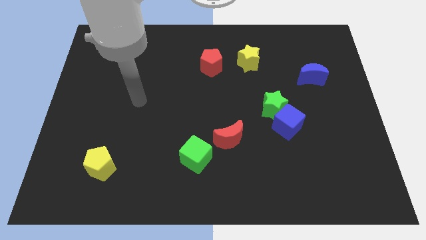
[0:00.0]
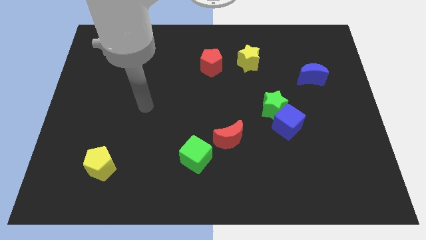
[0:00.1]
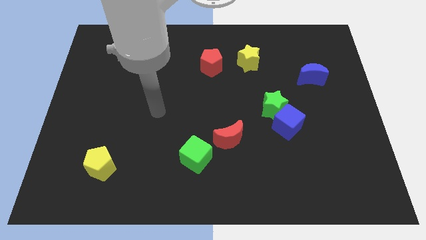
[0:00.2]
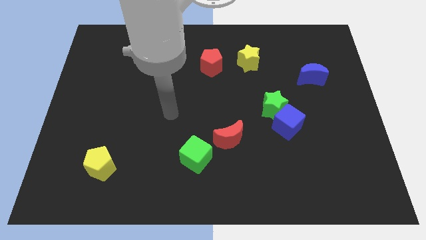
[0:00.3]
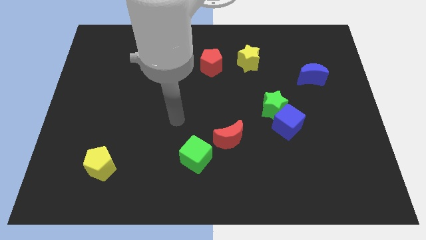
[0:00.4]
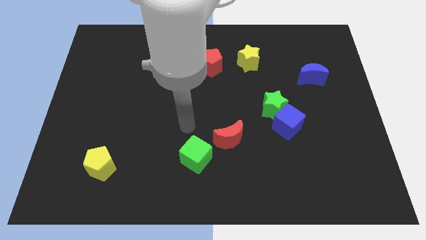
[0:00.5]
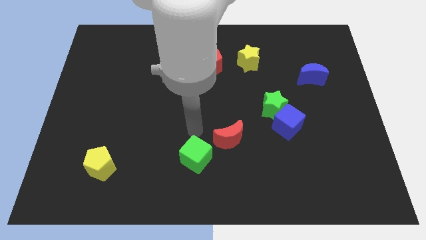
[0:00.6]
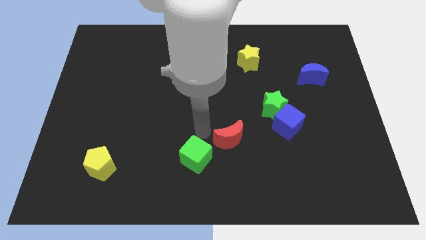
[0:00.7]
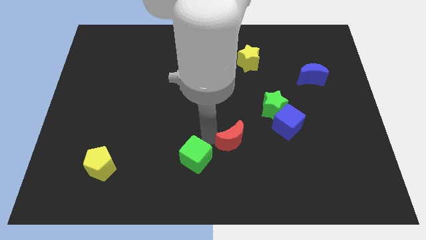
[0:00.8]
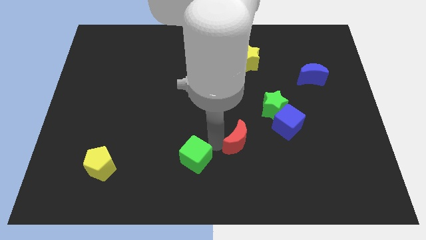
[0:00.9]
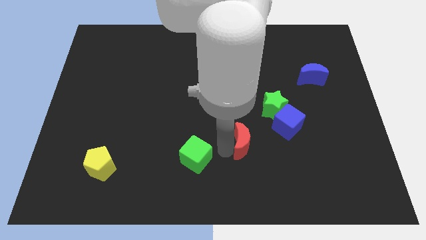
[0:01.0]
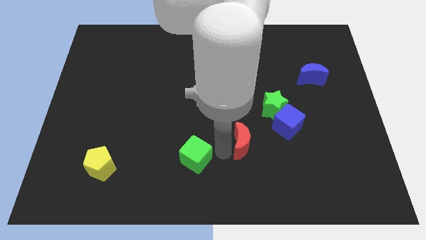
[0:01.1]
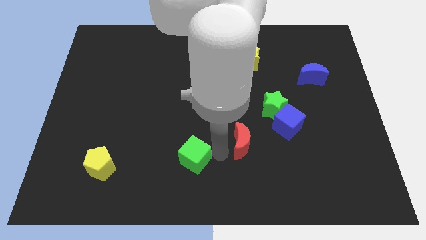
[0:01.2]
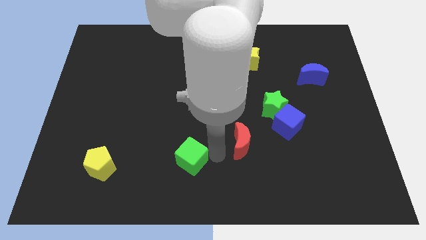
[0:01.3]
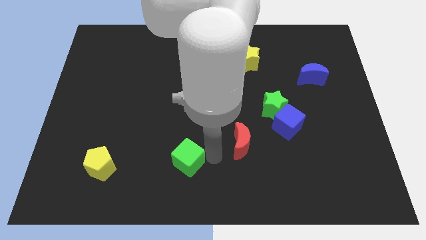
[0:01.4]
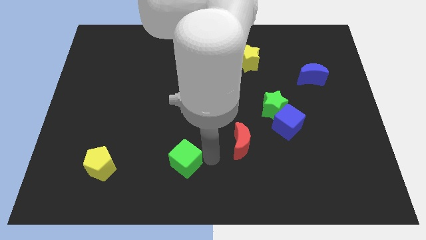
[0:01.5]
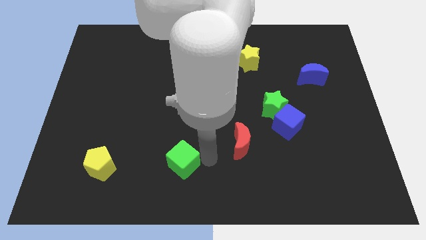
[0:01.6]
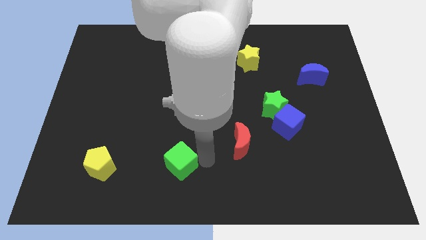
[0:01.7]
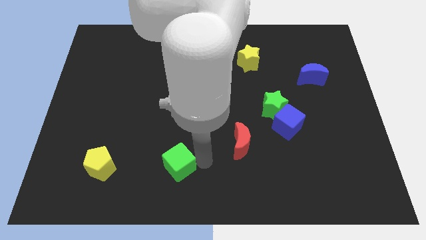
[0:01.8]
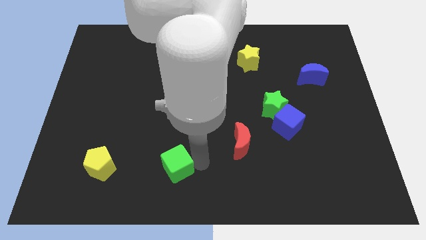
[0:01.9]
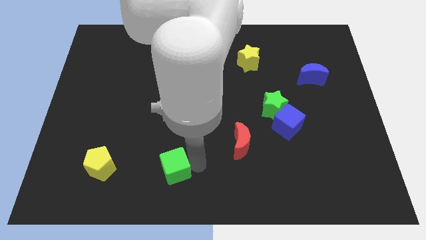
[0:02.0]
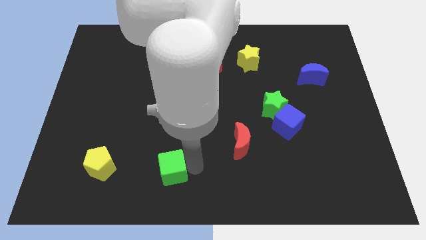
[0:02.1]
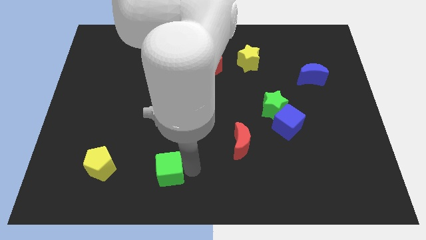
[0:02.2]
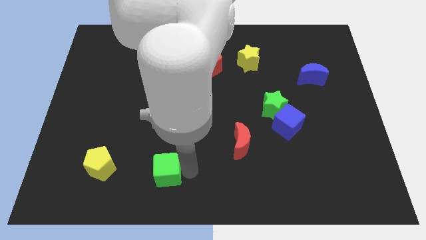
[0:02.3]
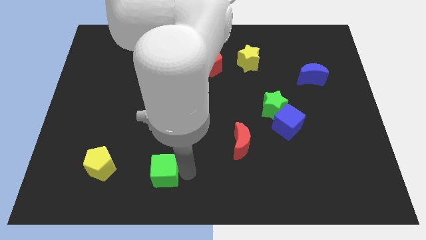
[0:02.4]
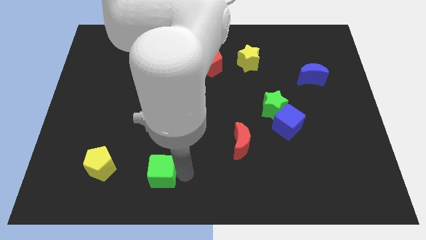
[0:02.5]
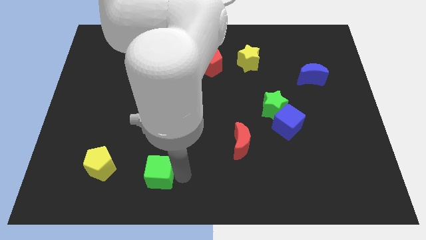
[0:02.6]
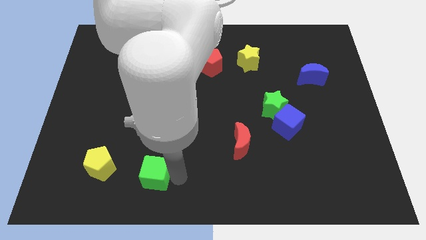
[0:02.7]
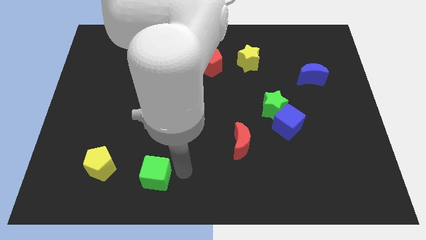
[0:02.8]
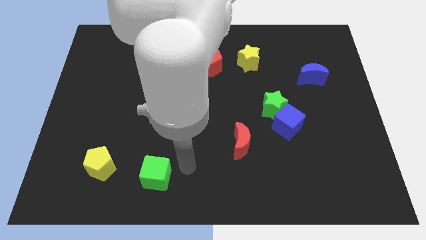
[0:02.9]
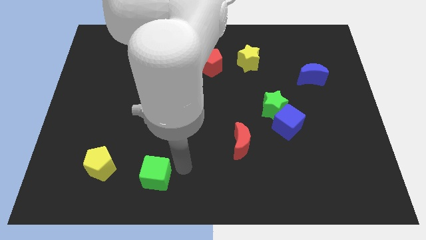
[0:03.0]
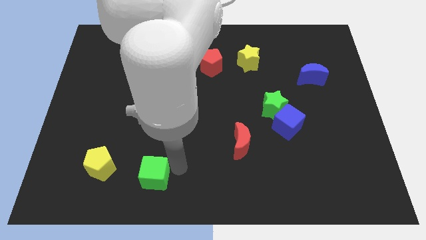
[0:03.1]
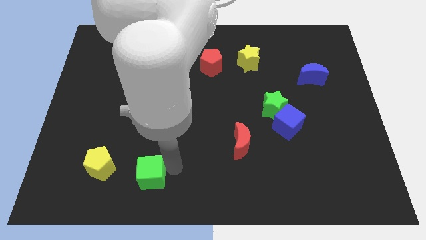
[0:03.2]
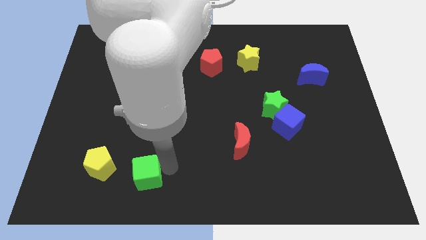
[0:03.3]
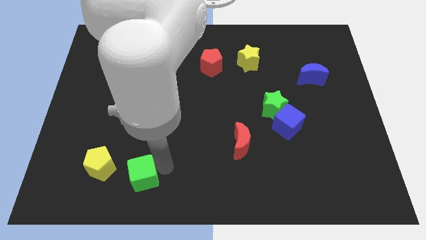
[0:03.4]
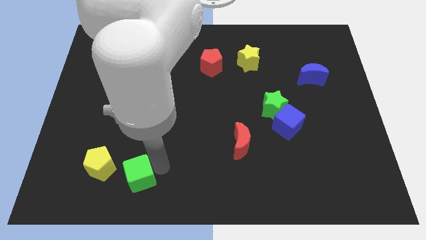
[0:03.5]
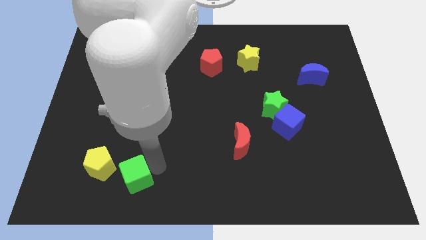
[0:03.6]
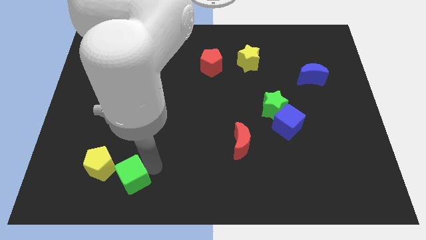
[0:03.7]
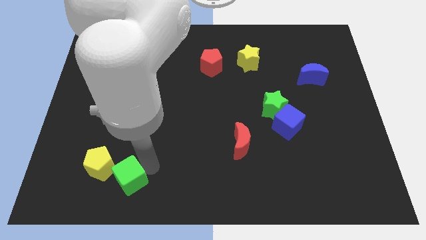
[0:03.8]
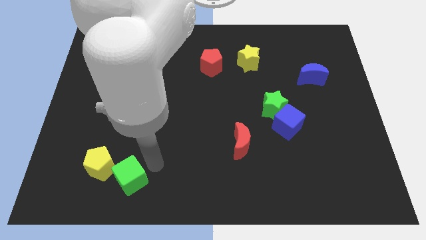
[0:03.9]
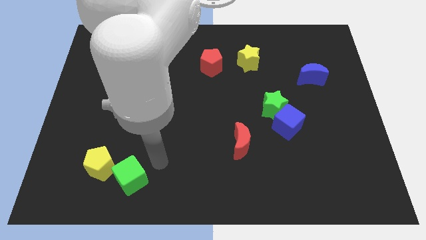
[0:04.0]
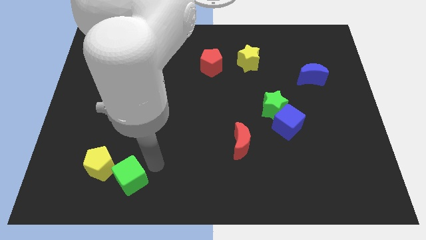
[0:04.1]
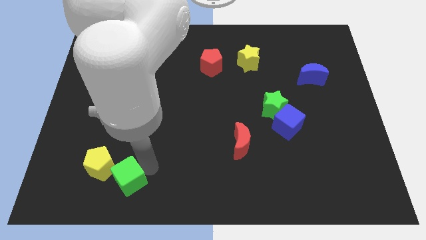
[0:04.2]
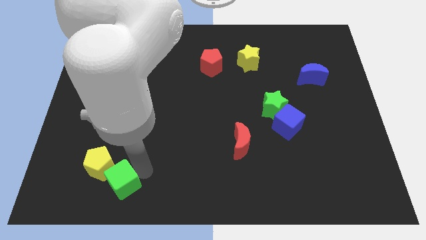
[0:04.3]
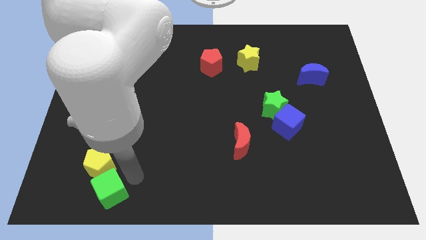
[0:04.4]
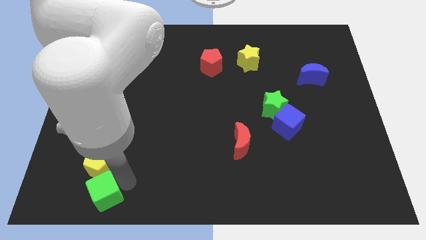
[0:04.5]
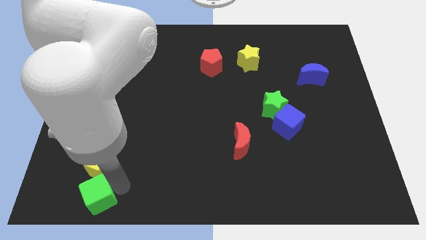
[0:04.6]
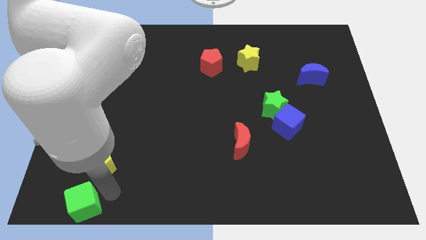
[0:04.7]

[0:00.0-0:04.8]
move the green cube to the bottom left of the board

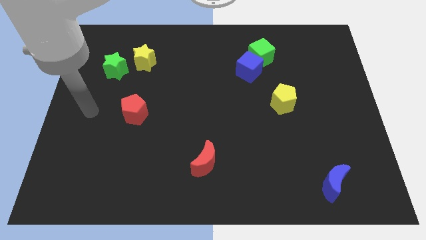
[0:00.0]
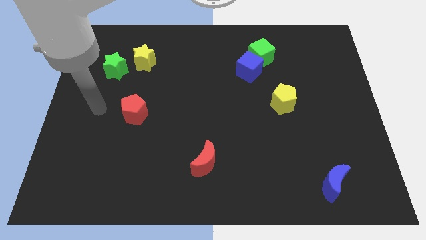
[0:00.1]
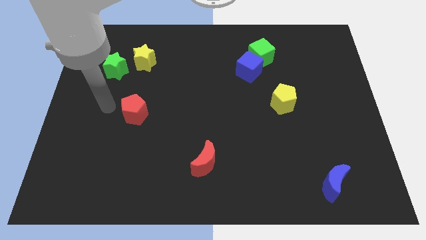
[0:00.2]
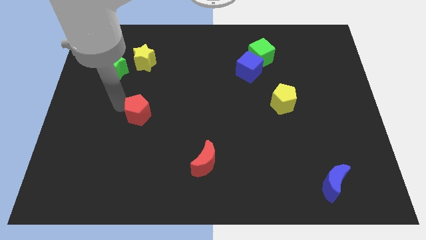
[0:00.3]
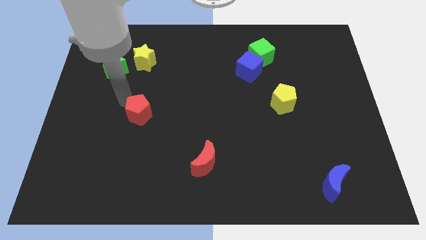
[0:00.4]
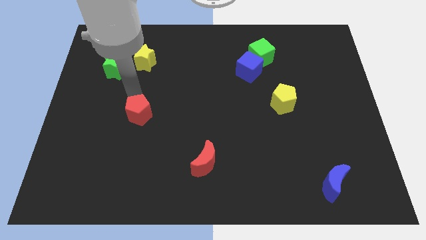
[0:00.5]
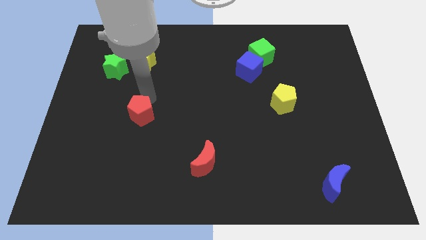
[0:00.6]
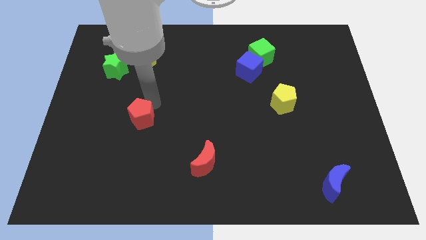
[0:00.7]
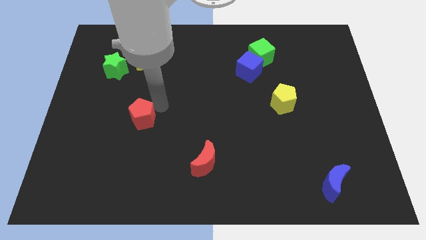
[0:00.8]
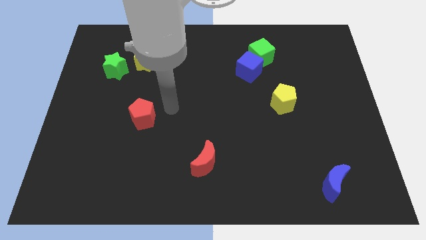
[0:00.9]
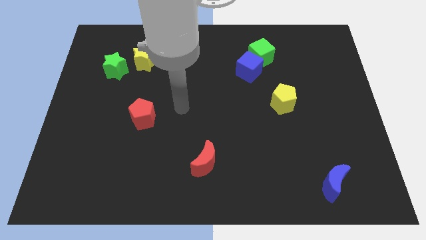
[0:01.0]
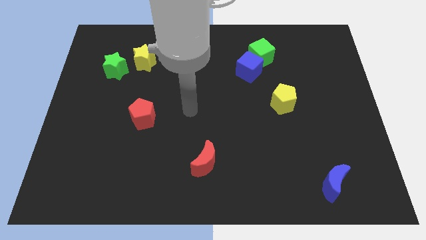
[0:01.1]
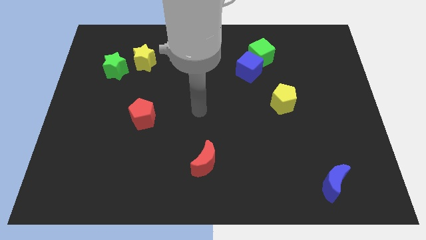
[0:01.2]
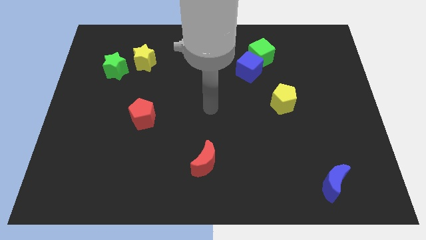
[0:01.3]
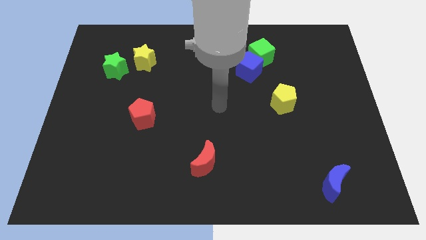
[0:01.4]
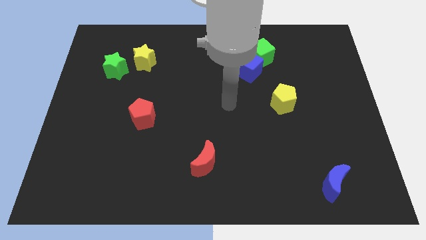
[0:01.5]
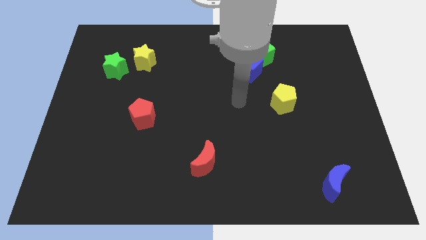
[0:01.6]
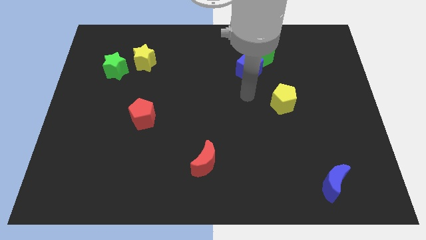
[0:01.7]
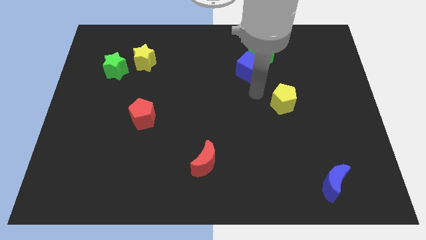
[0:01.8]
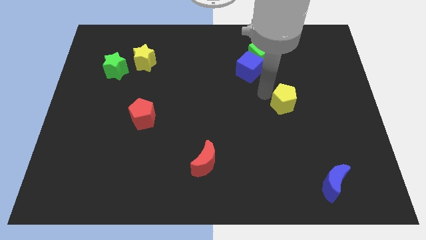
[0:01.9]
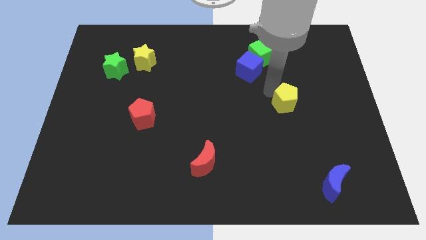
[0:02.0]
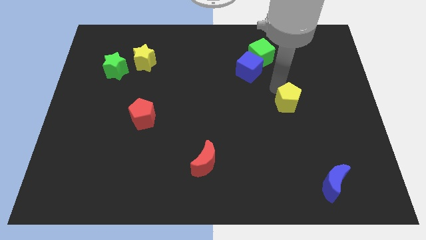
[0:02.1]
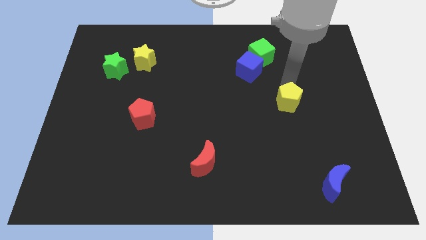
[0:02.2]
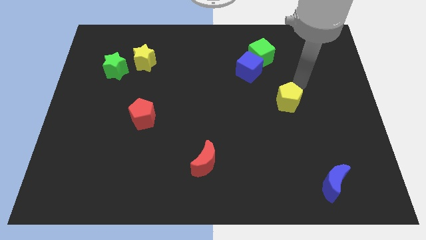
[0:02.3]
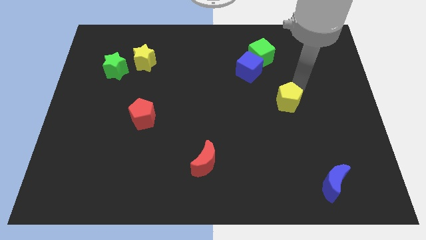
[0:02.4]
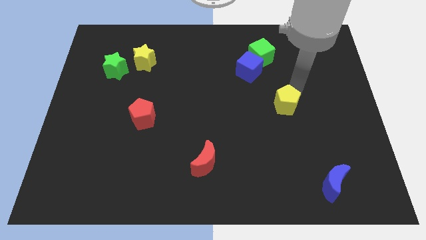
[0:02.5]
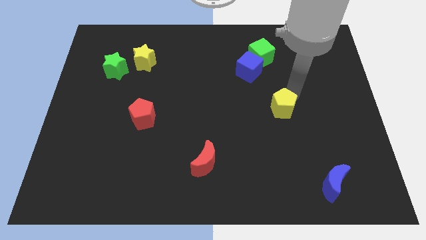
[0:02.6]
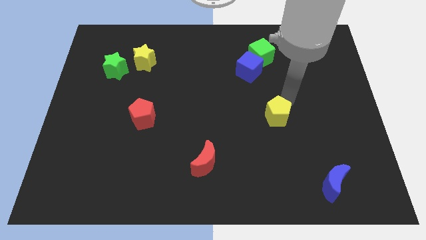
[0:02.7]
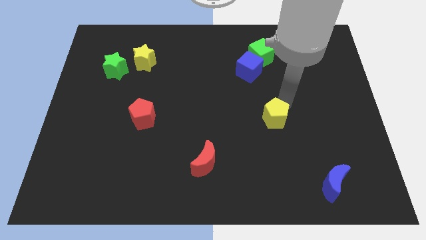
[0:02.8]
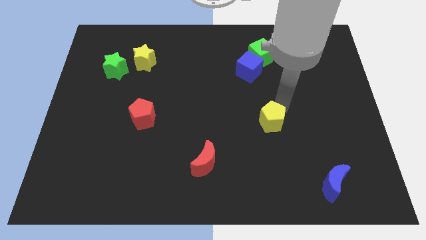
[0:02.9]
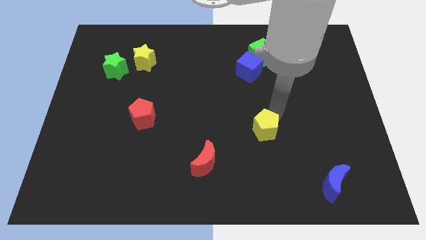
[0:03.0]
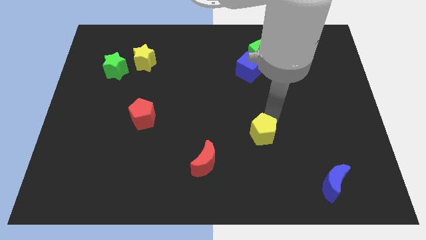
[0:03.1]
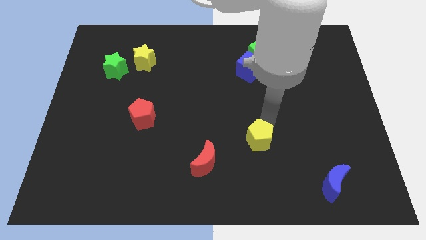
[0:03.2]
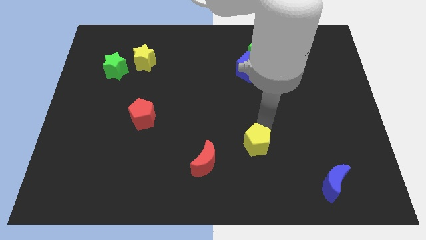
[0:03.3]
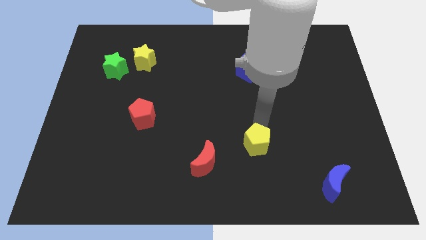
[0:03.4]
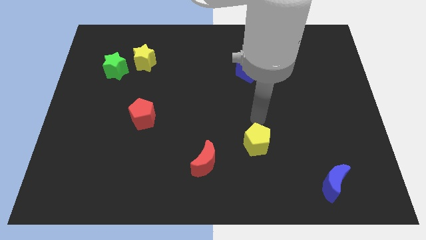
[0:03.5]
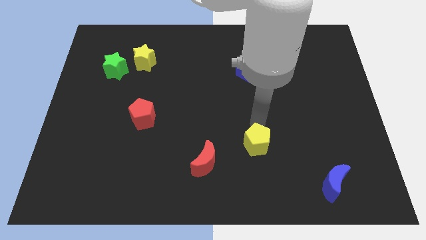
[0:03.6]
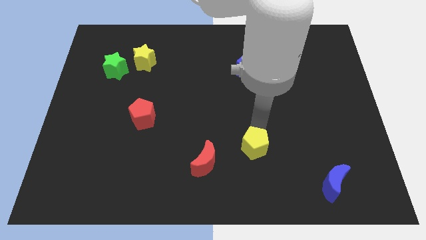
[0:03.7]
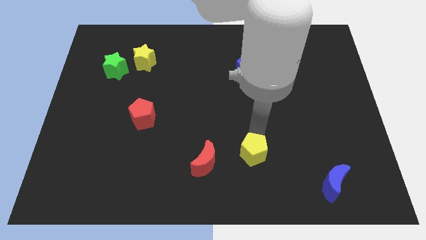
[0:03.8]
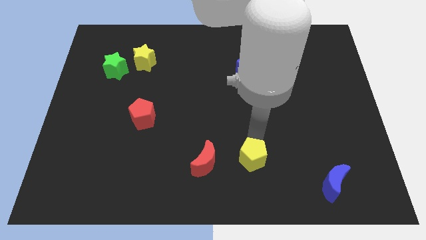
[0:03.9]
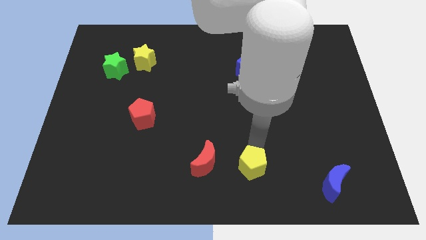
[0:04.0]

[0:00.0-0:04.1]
push the yellow pentagon to the bottom side
